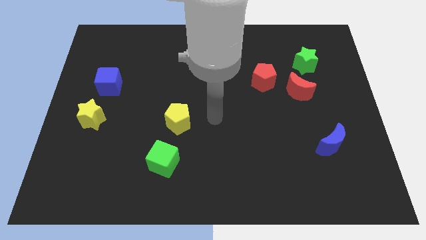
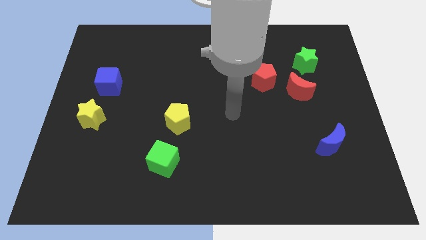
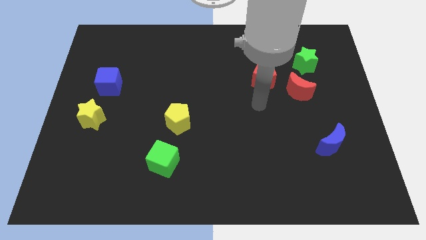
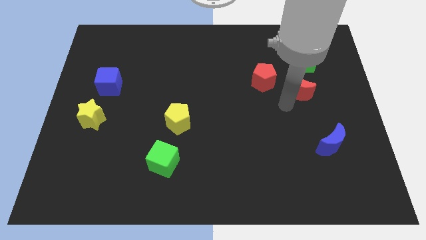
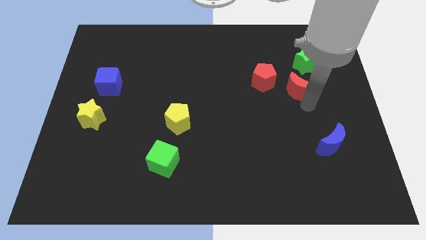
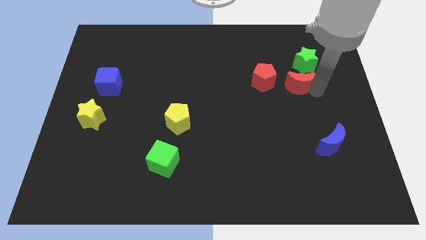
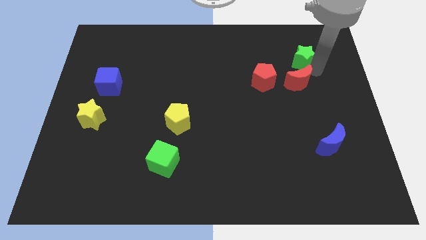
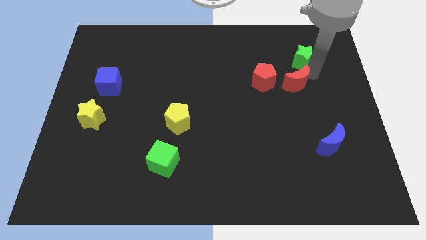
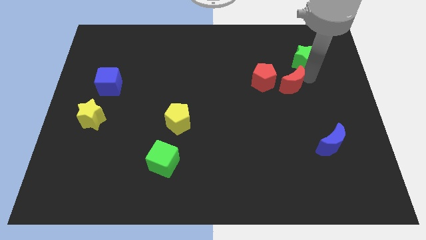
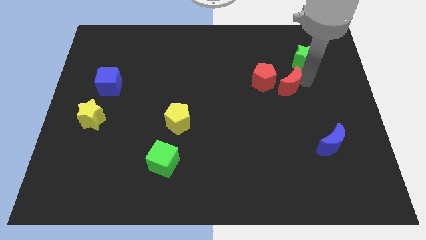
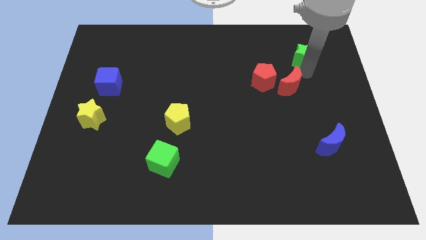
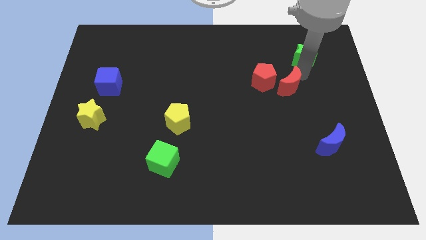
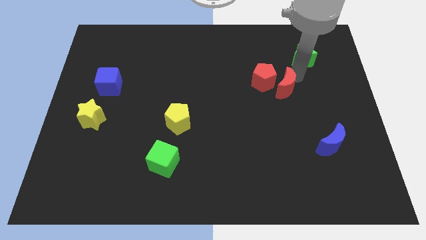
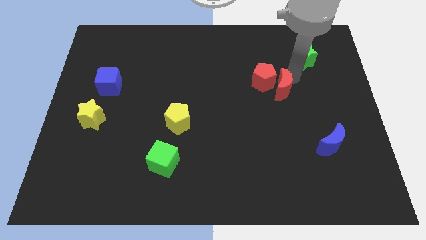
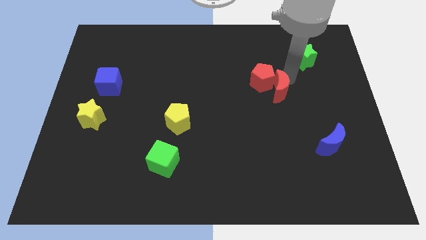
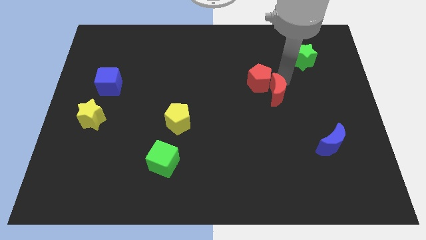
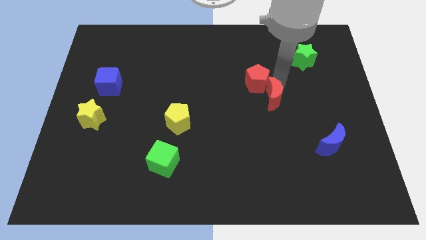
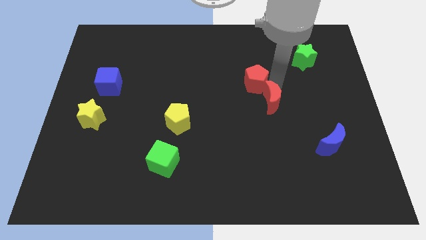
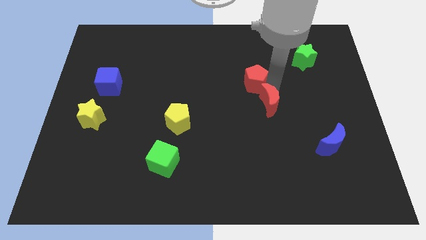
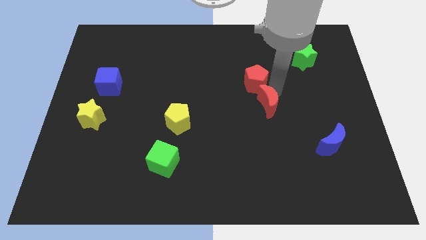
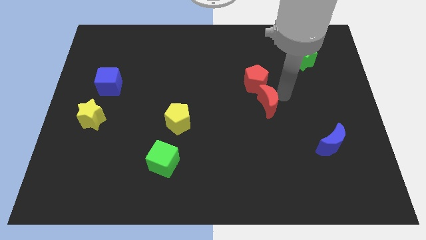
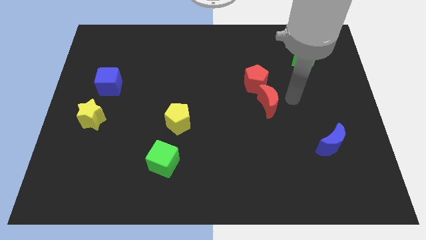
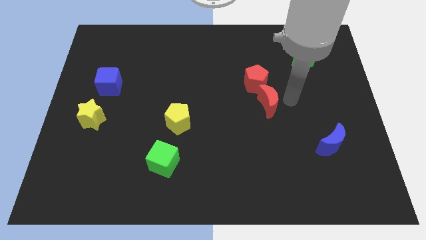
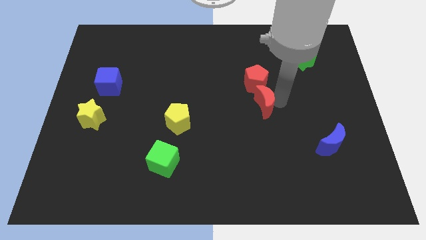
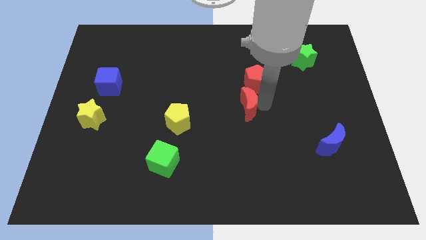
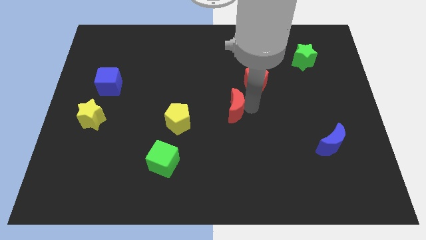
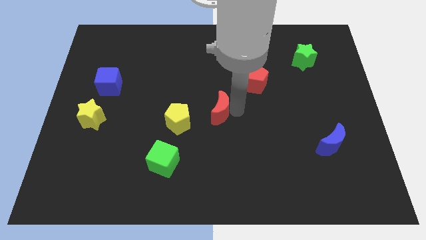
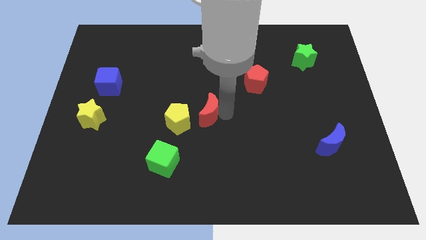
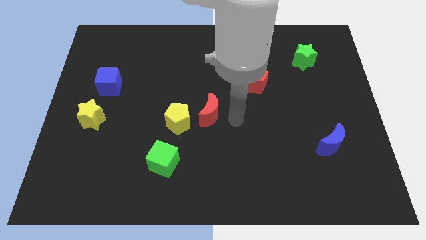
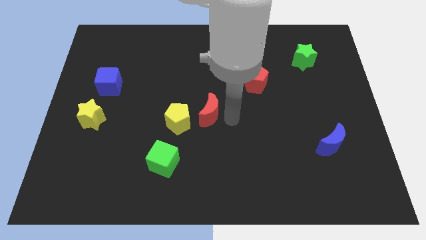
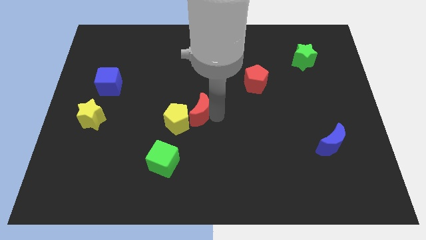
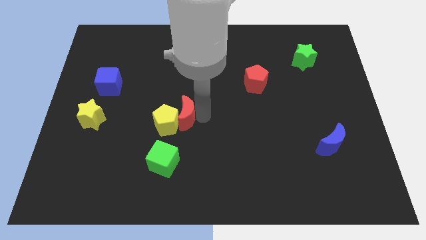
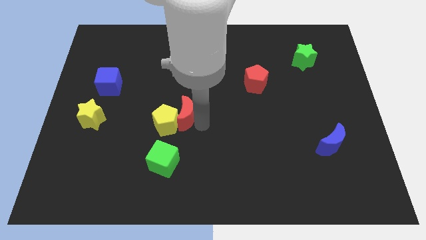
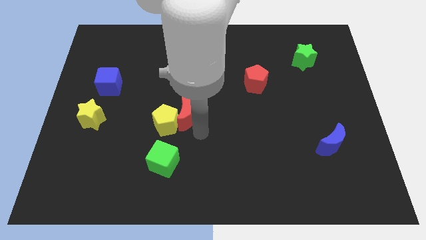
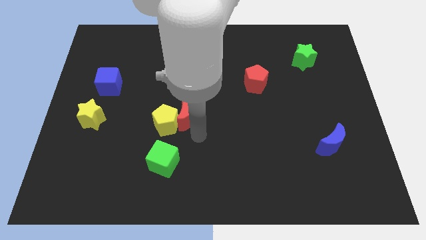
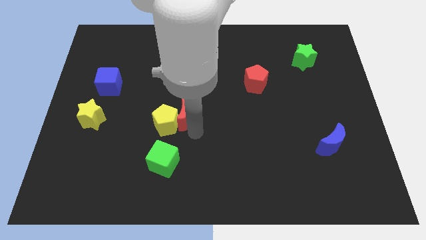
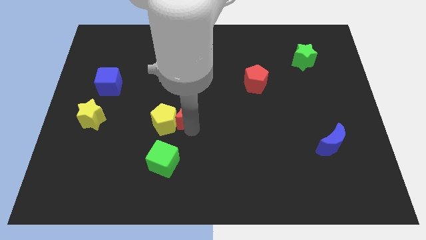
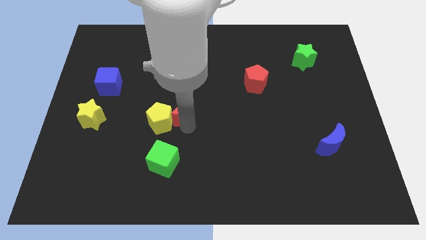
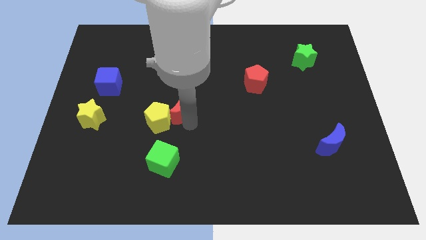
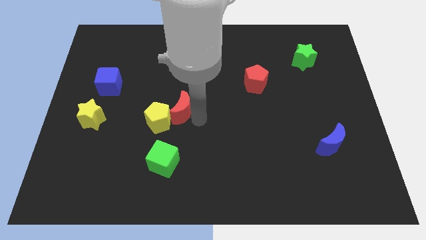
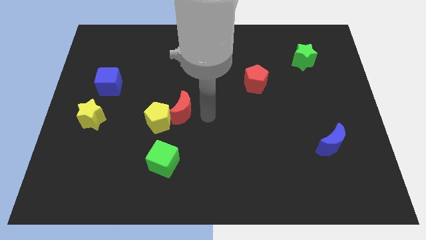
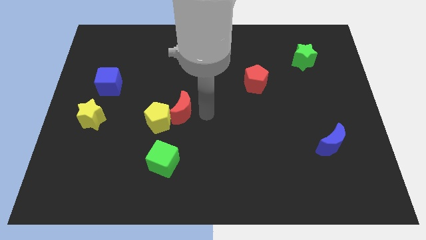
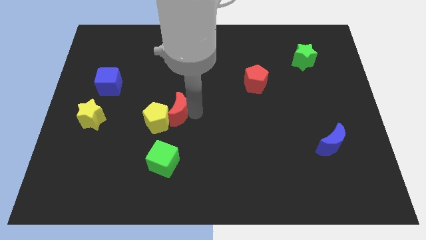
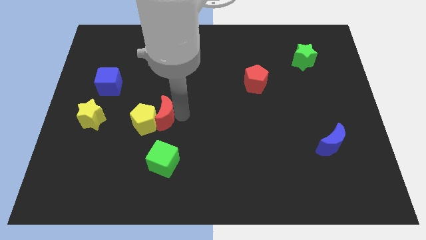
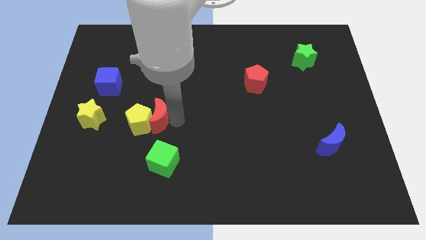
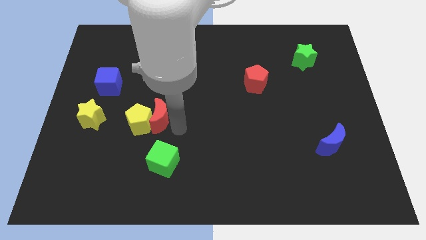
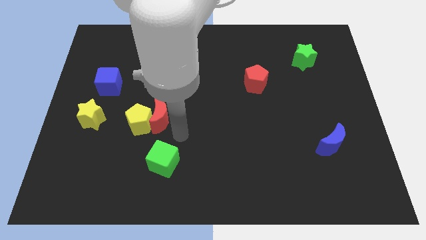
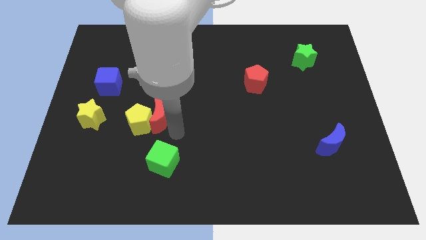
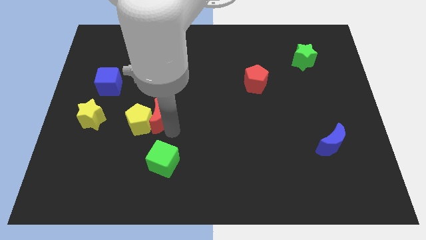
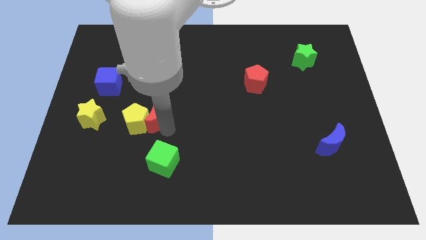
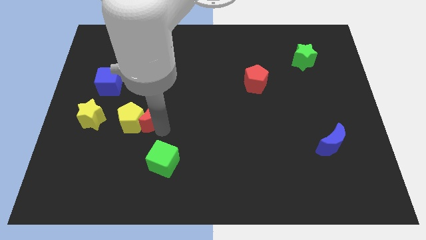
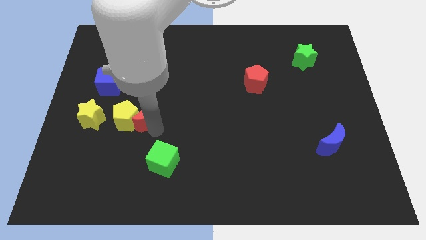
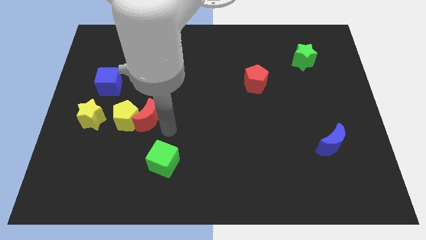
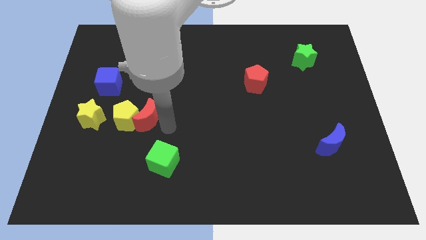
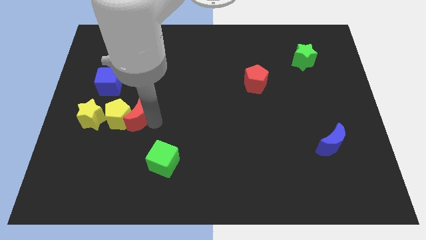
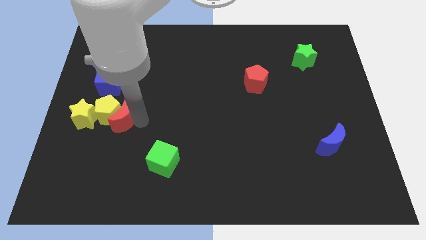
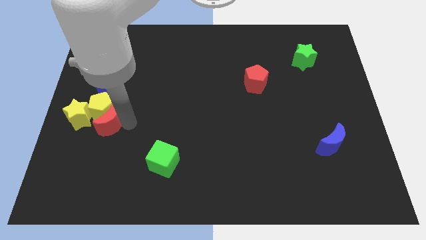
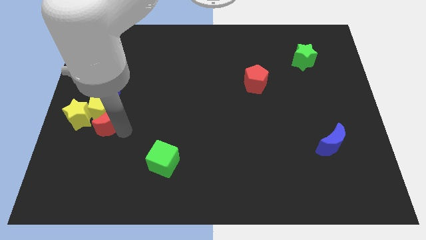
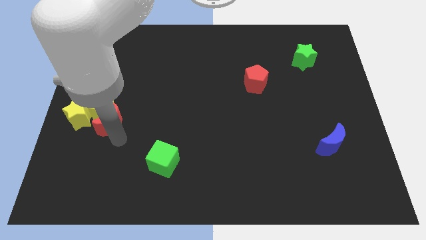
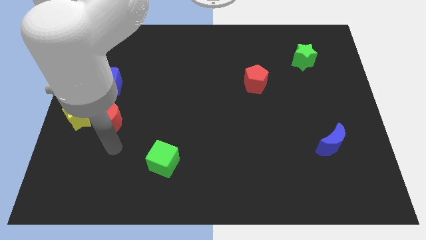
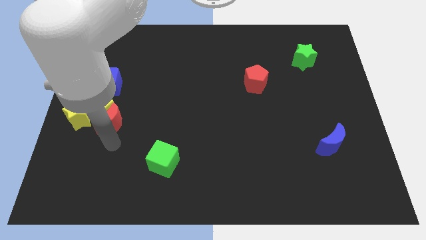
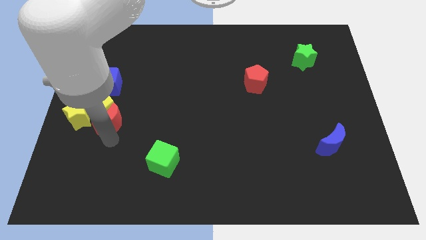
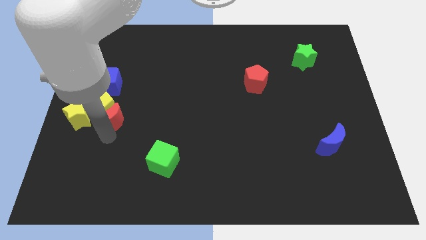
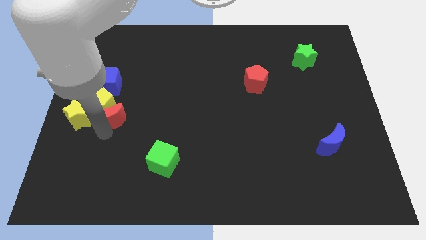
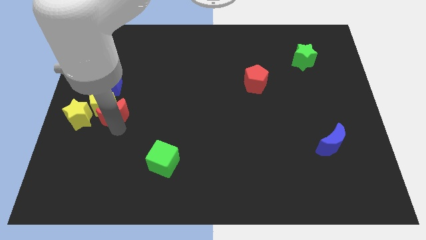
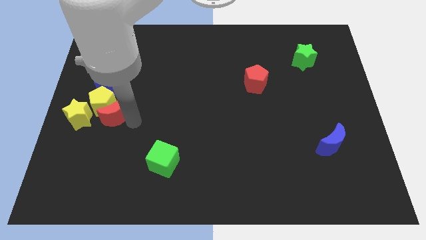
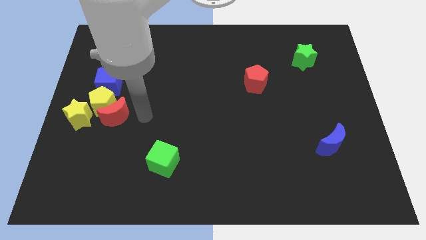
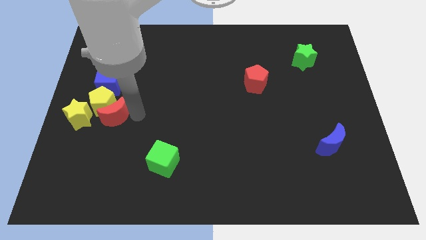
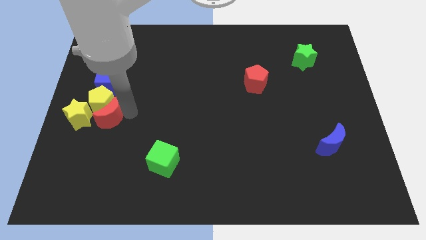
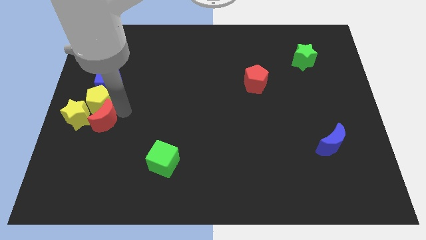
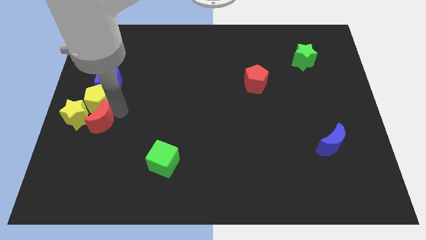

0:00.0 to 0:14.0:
push the red moon towards the yellow star
